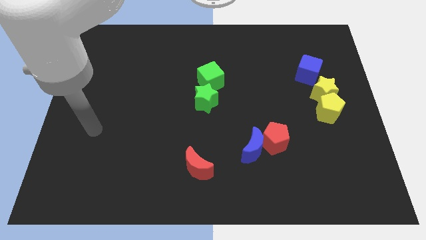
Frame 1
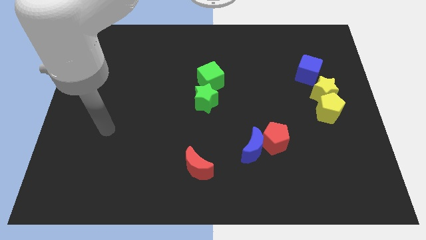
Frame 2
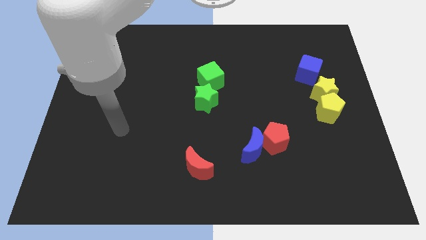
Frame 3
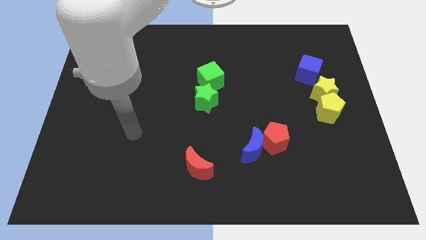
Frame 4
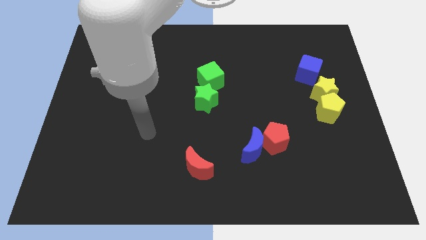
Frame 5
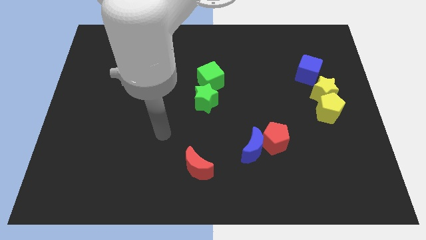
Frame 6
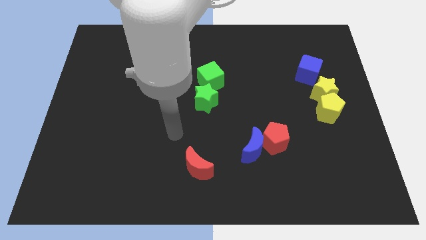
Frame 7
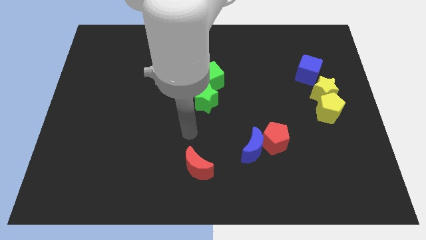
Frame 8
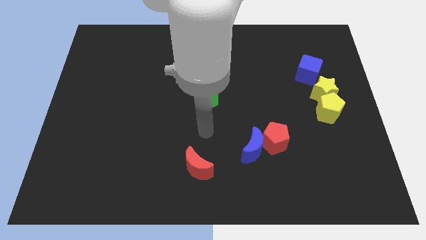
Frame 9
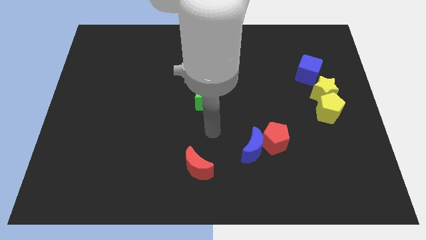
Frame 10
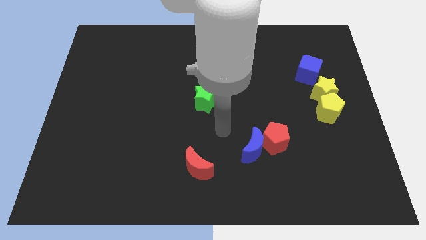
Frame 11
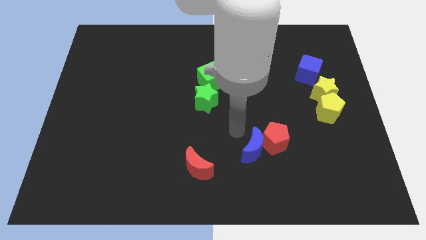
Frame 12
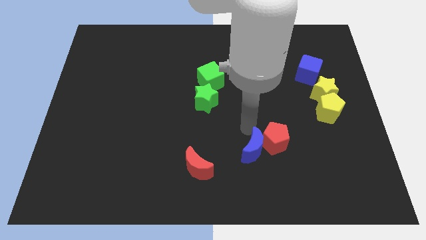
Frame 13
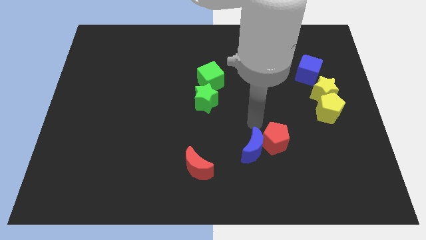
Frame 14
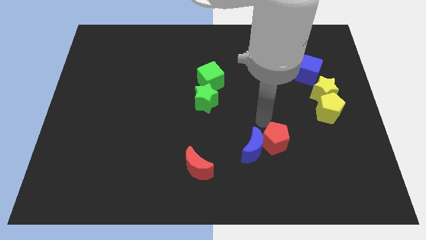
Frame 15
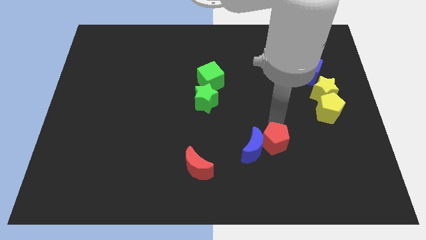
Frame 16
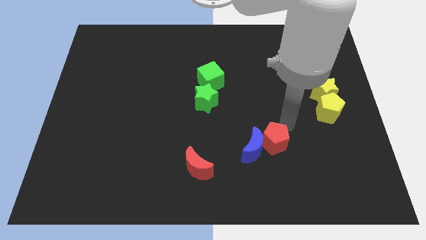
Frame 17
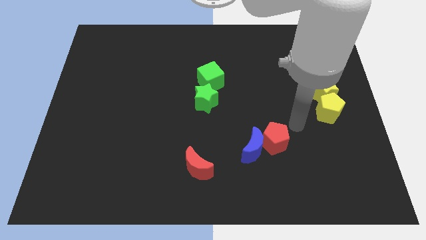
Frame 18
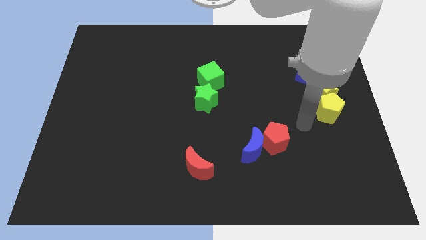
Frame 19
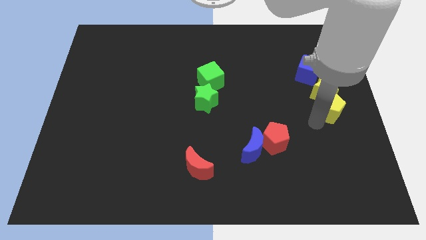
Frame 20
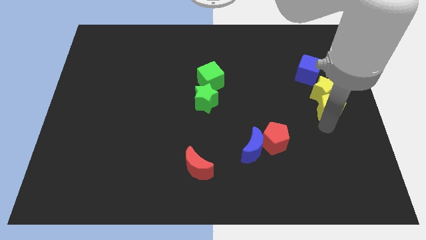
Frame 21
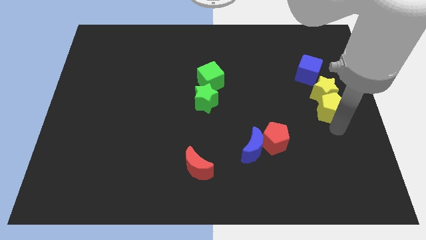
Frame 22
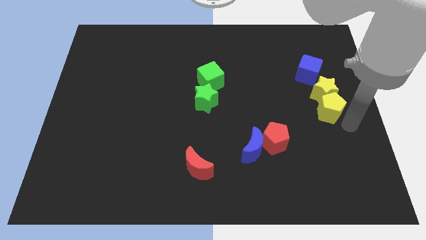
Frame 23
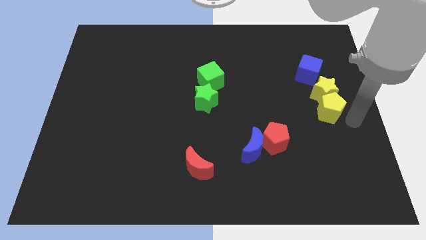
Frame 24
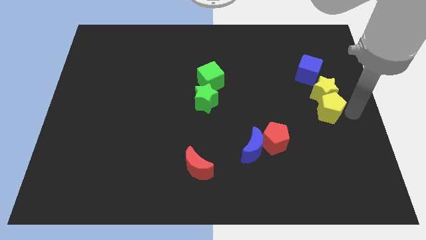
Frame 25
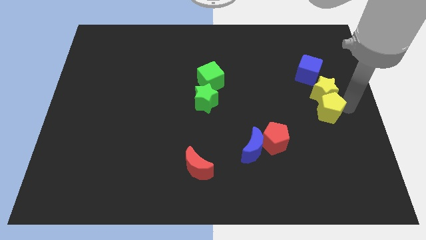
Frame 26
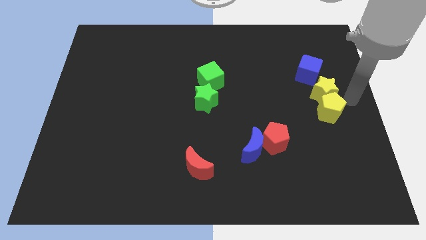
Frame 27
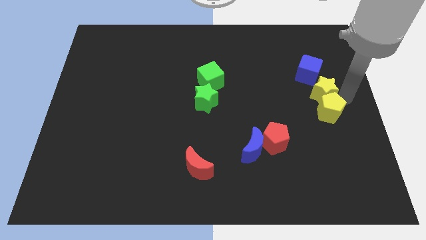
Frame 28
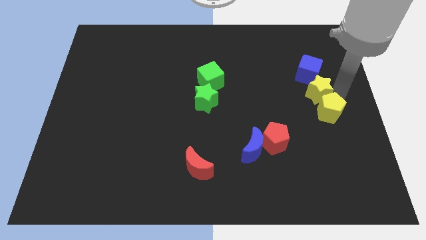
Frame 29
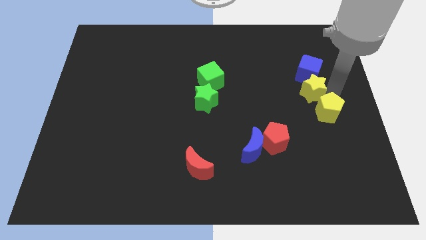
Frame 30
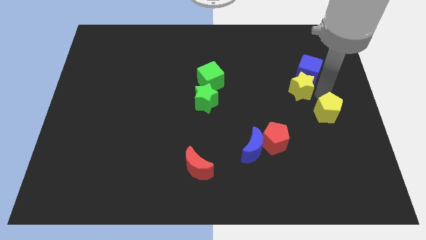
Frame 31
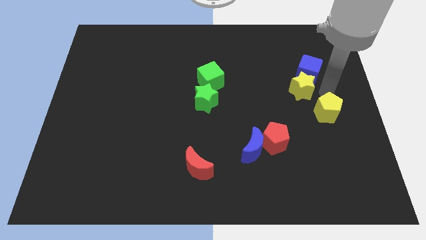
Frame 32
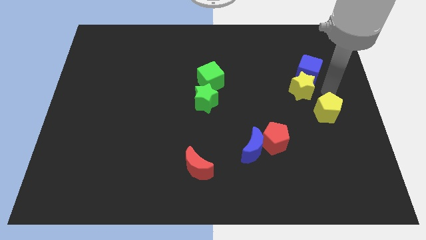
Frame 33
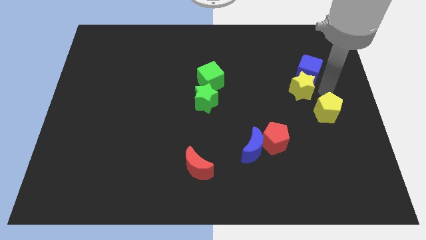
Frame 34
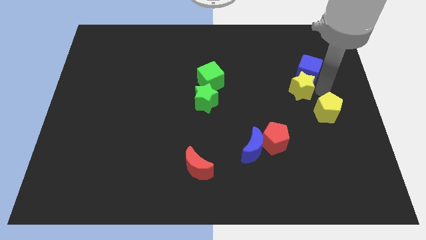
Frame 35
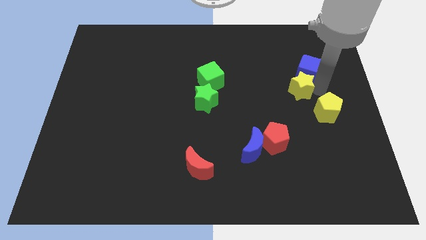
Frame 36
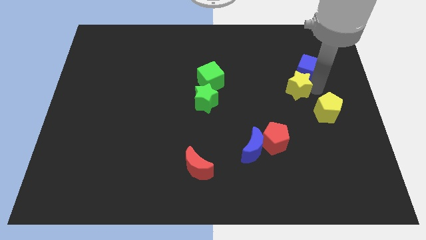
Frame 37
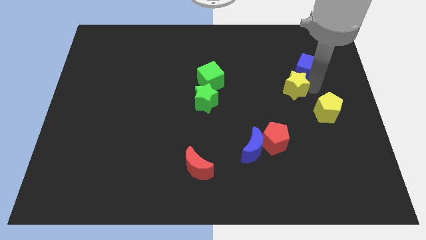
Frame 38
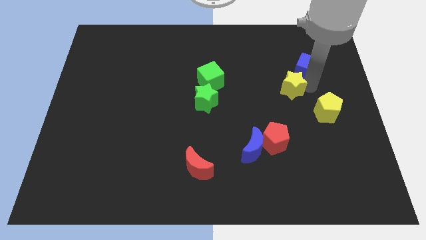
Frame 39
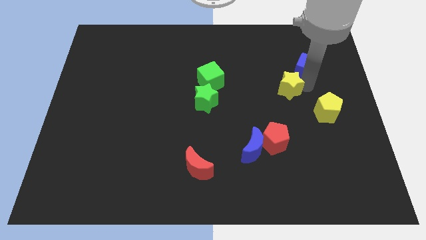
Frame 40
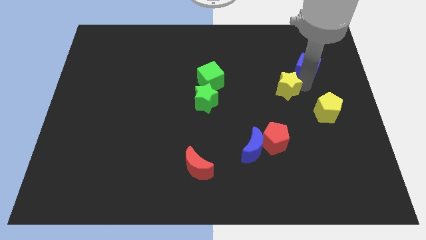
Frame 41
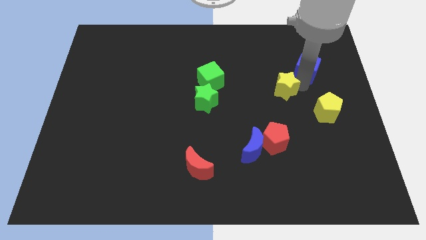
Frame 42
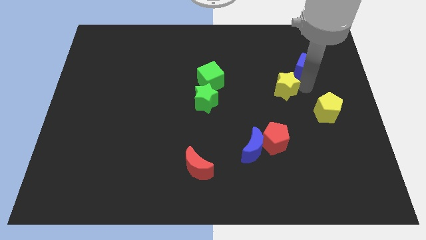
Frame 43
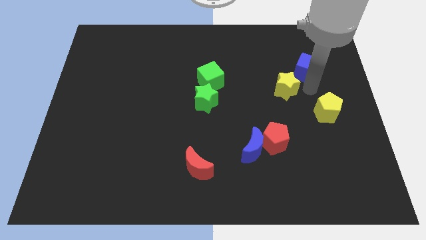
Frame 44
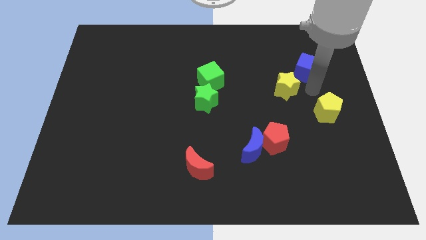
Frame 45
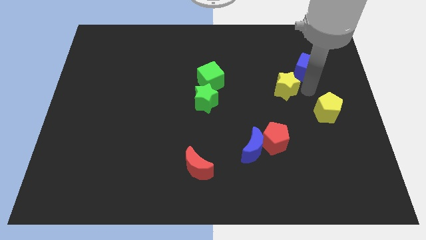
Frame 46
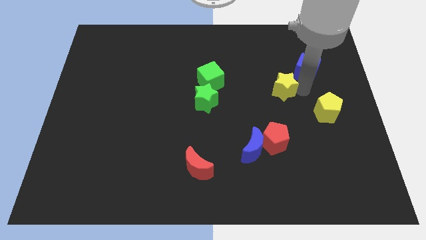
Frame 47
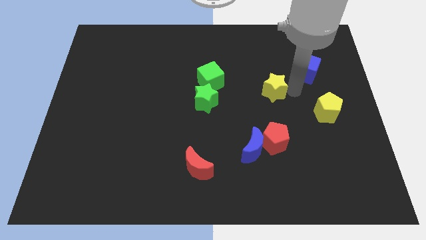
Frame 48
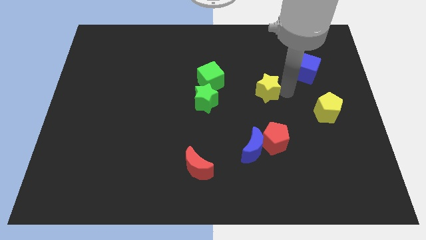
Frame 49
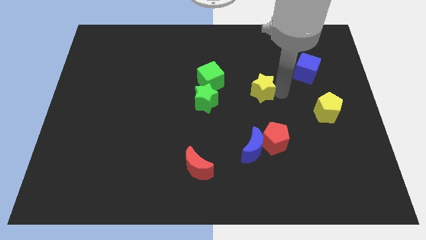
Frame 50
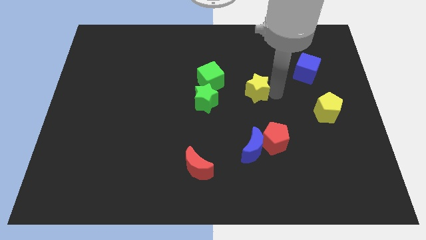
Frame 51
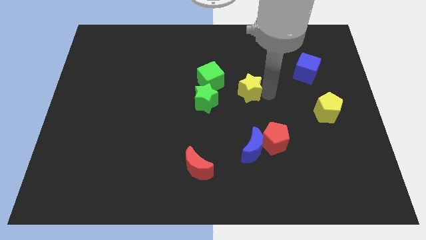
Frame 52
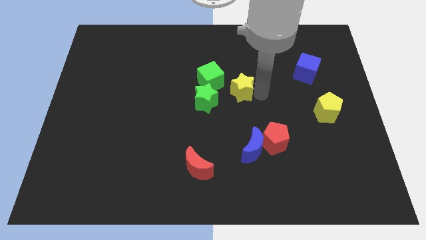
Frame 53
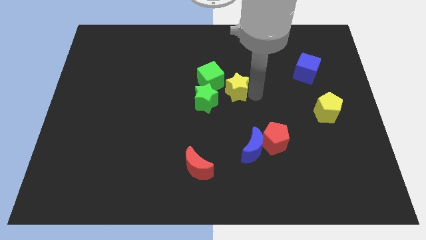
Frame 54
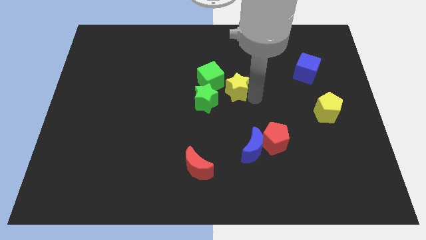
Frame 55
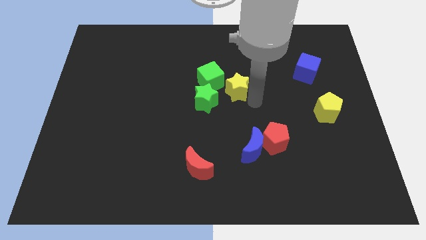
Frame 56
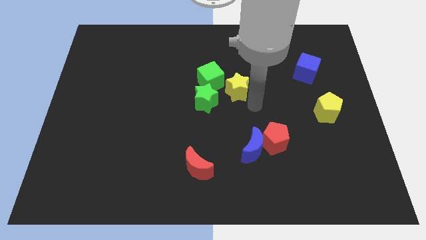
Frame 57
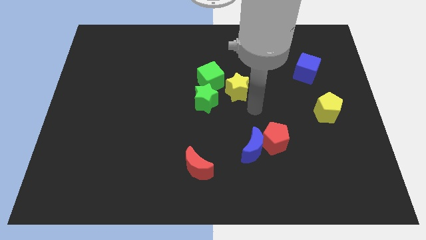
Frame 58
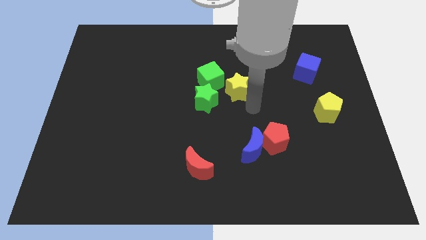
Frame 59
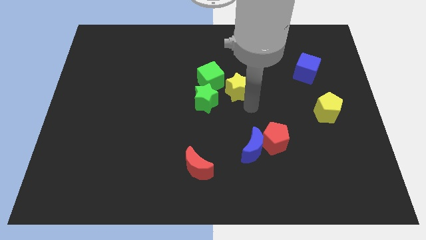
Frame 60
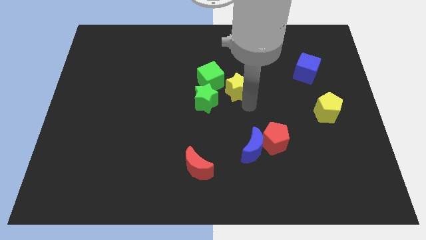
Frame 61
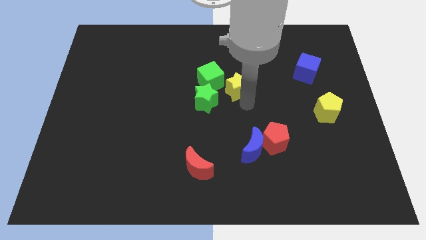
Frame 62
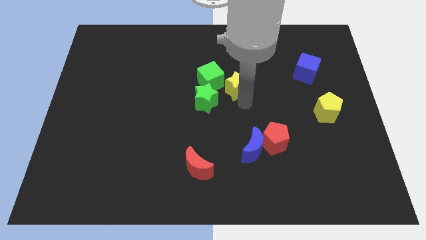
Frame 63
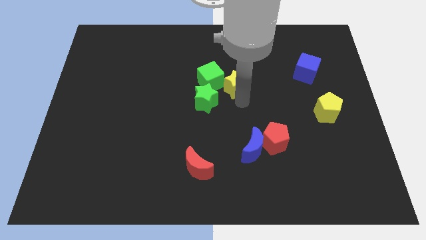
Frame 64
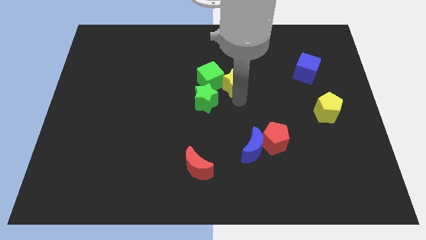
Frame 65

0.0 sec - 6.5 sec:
move the yellow star towards the green cube
